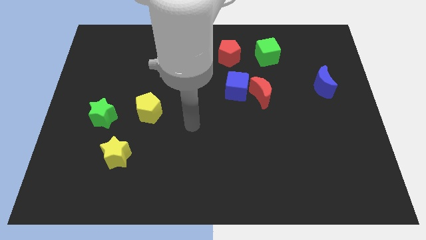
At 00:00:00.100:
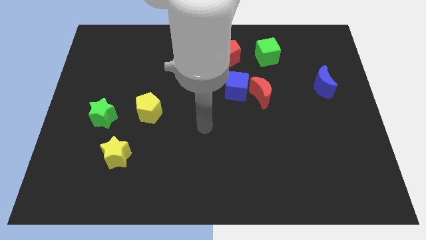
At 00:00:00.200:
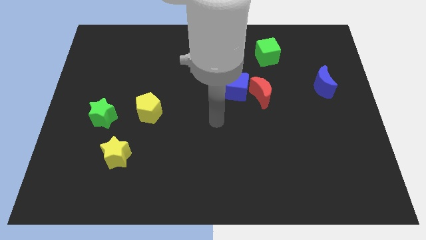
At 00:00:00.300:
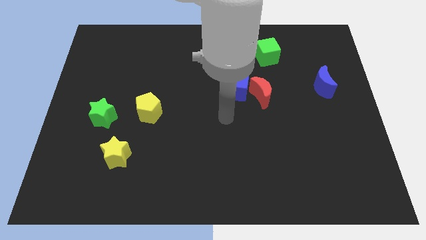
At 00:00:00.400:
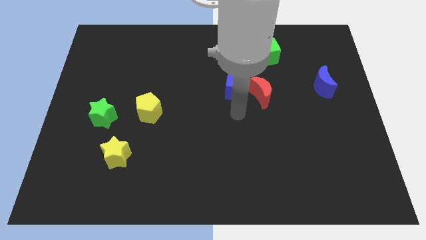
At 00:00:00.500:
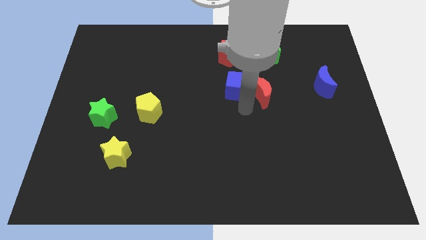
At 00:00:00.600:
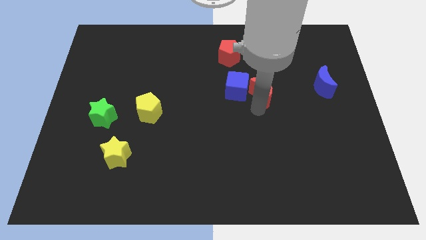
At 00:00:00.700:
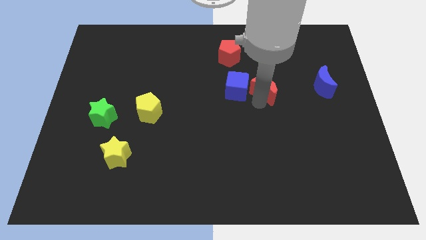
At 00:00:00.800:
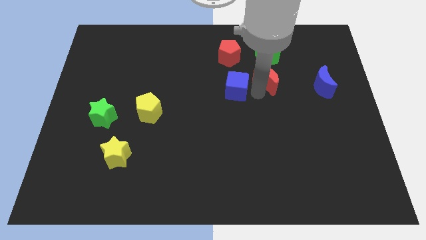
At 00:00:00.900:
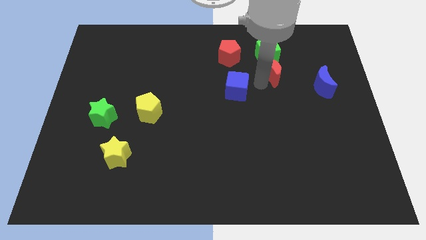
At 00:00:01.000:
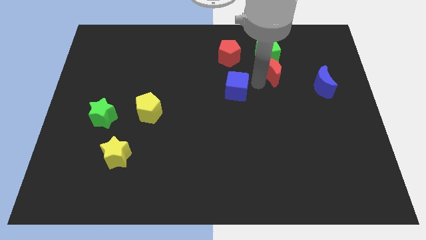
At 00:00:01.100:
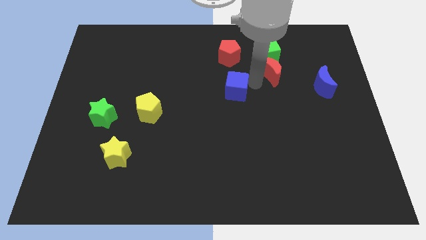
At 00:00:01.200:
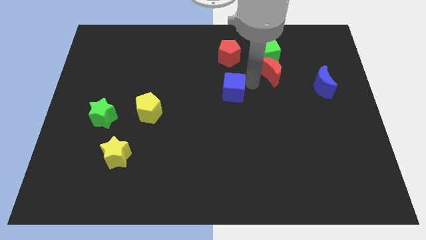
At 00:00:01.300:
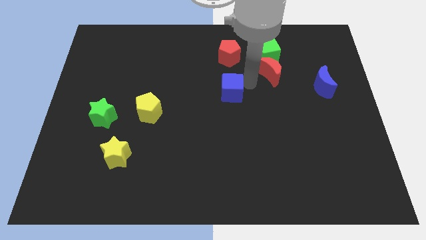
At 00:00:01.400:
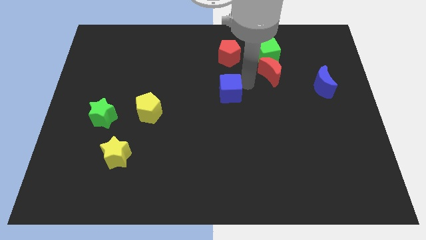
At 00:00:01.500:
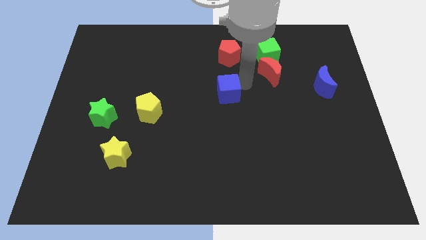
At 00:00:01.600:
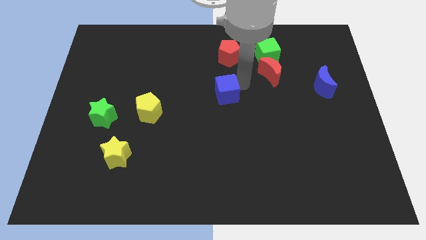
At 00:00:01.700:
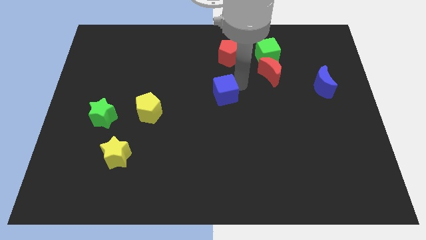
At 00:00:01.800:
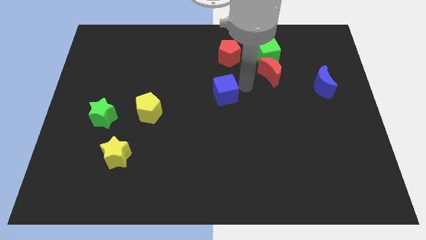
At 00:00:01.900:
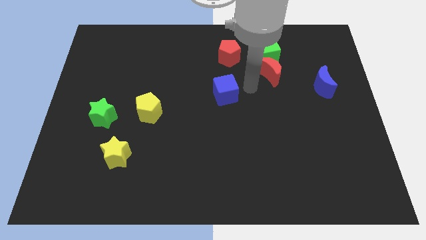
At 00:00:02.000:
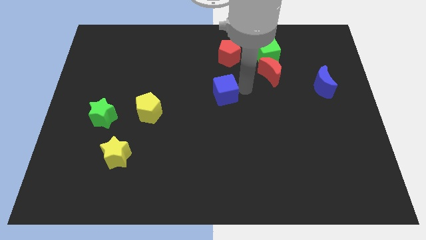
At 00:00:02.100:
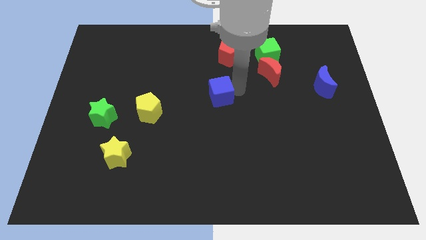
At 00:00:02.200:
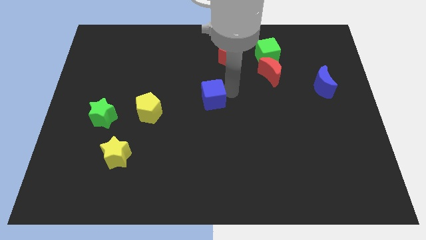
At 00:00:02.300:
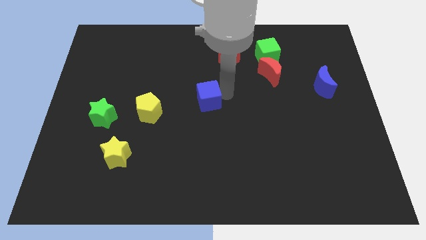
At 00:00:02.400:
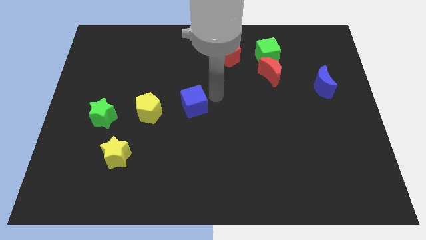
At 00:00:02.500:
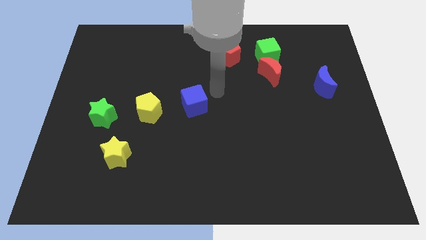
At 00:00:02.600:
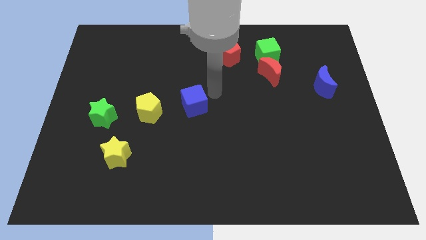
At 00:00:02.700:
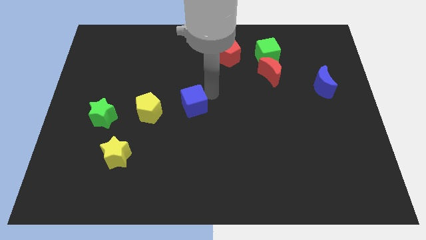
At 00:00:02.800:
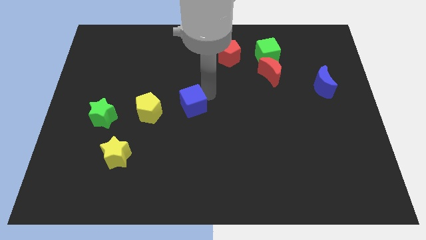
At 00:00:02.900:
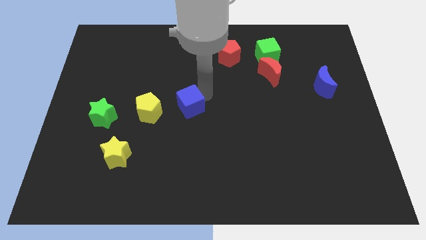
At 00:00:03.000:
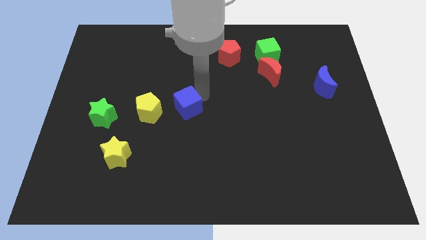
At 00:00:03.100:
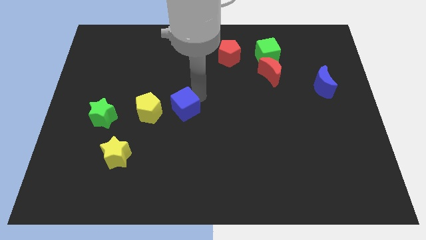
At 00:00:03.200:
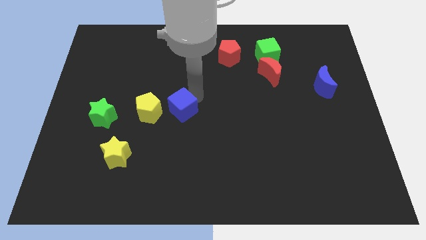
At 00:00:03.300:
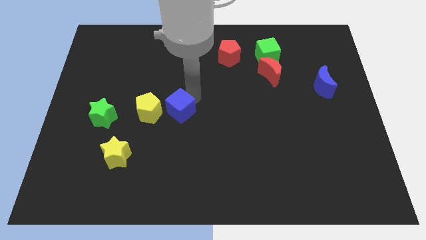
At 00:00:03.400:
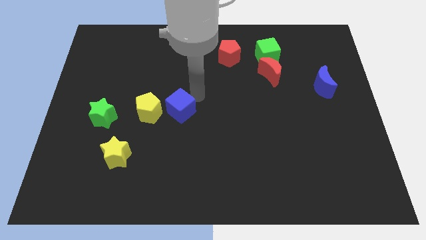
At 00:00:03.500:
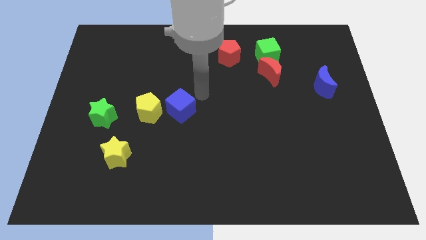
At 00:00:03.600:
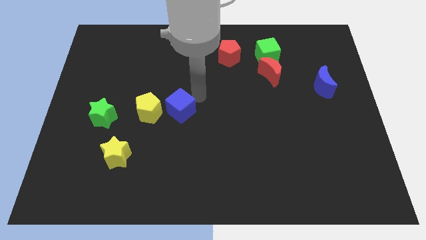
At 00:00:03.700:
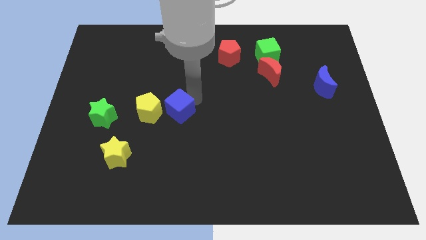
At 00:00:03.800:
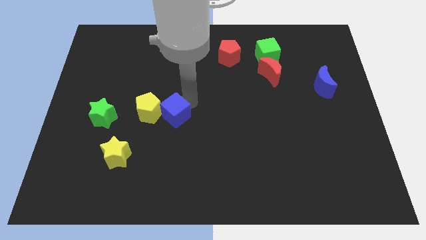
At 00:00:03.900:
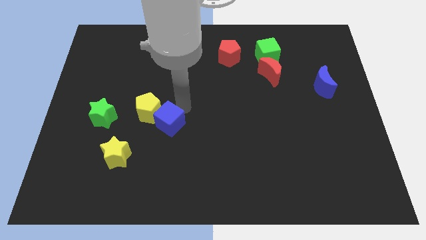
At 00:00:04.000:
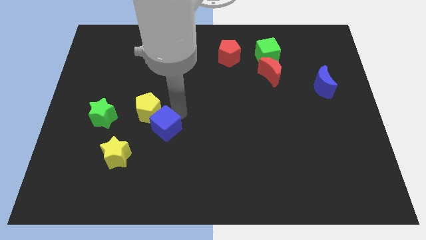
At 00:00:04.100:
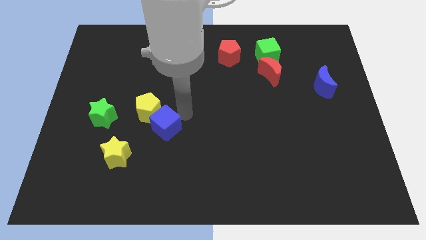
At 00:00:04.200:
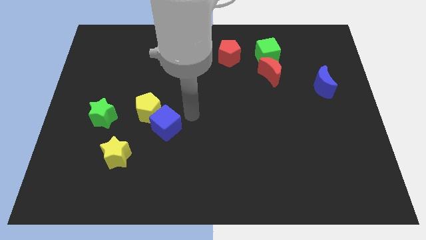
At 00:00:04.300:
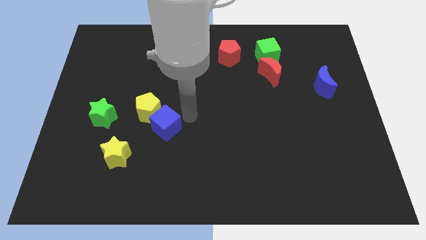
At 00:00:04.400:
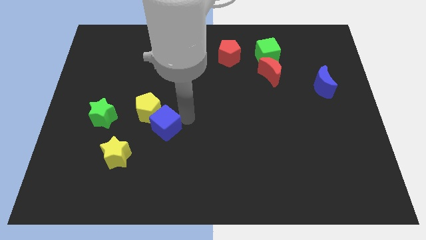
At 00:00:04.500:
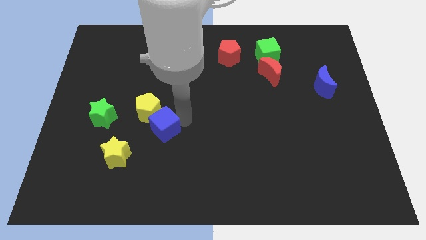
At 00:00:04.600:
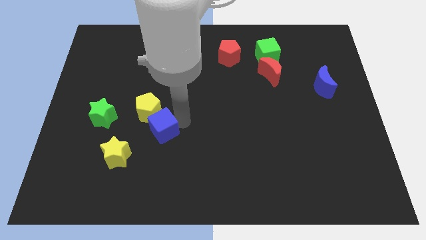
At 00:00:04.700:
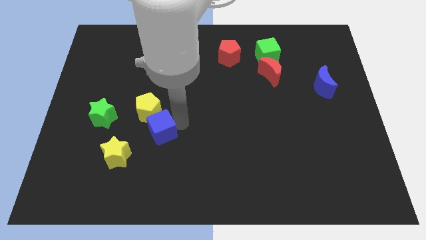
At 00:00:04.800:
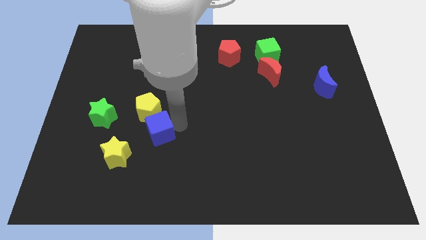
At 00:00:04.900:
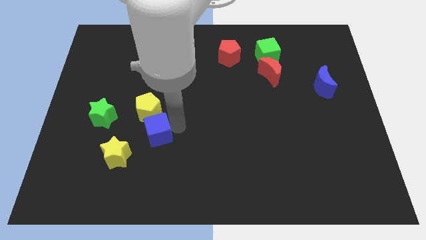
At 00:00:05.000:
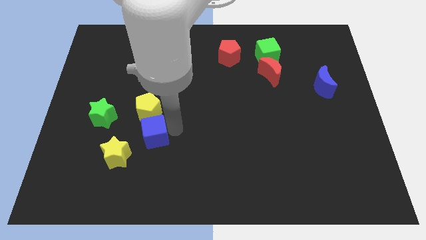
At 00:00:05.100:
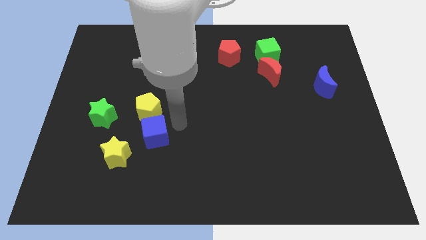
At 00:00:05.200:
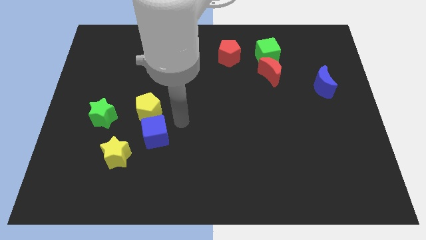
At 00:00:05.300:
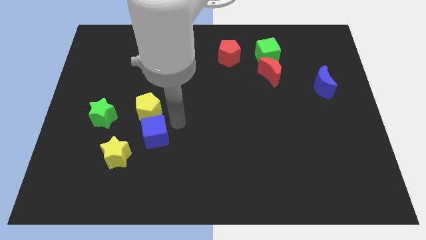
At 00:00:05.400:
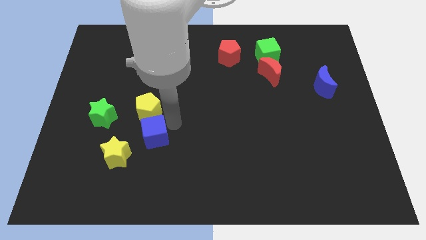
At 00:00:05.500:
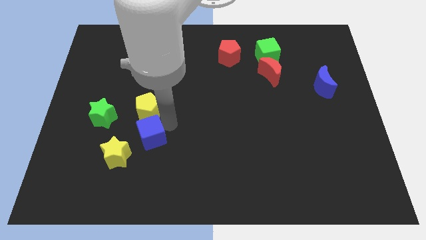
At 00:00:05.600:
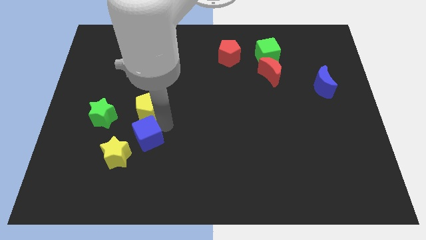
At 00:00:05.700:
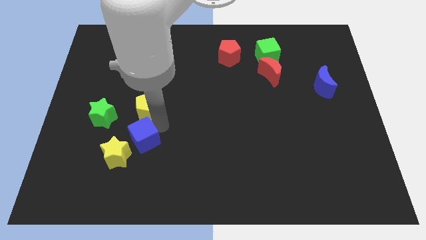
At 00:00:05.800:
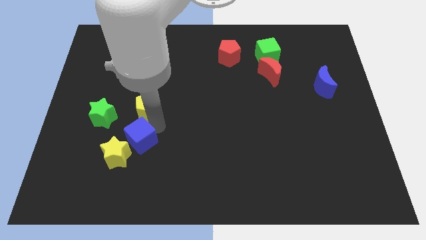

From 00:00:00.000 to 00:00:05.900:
push the blue cube next to the yellow star

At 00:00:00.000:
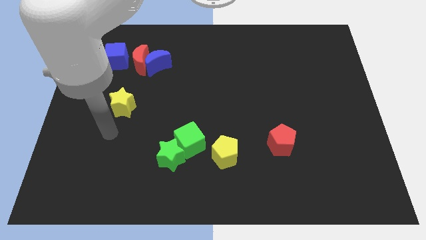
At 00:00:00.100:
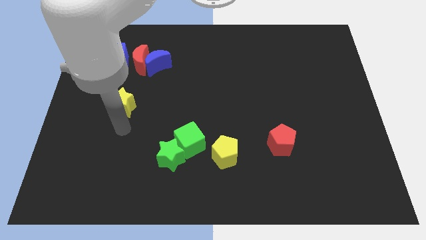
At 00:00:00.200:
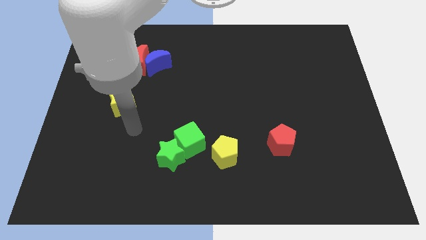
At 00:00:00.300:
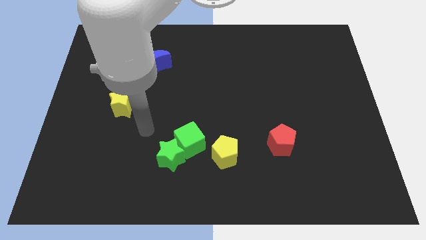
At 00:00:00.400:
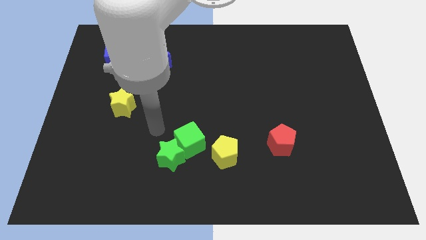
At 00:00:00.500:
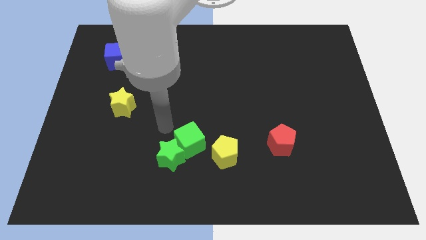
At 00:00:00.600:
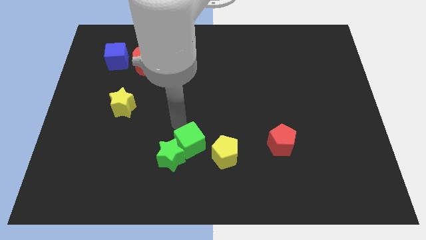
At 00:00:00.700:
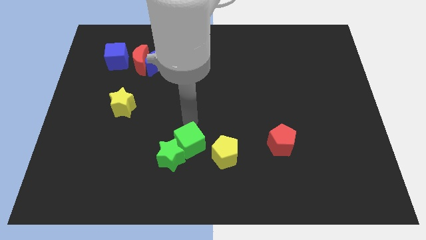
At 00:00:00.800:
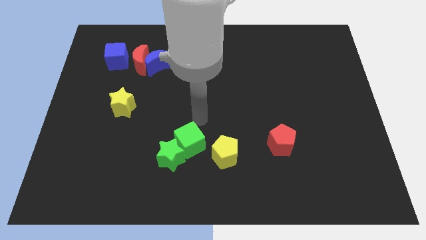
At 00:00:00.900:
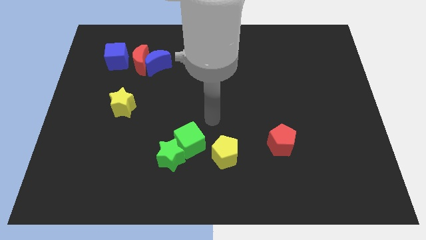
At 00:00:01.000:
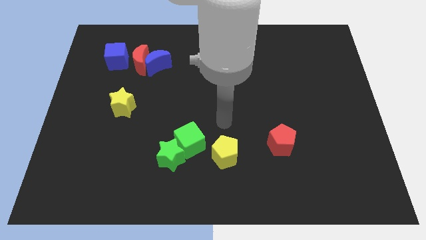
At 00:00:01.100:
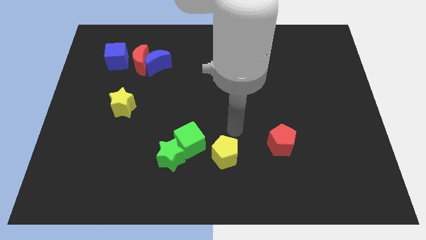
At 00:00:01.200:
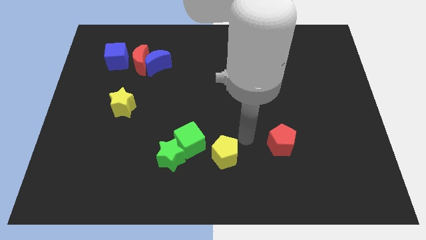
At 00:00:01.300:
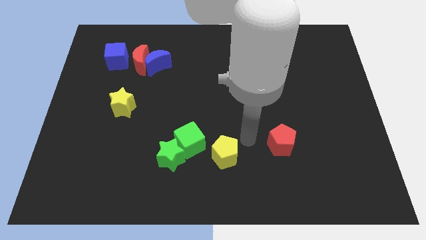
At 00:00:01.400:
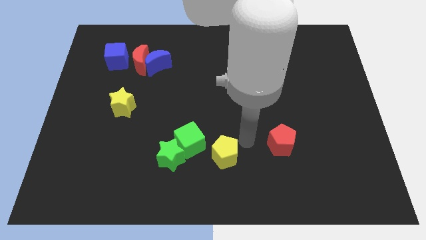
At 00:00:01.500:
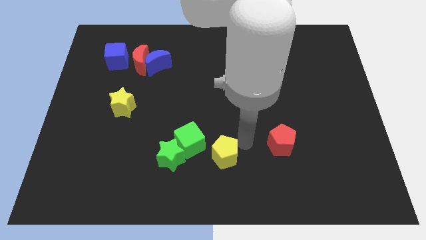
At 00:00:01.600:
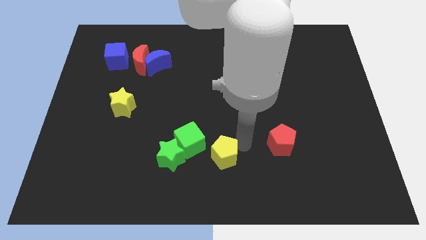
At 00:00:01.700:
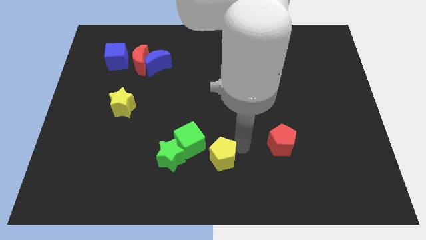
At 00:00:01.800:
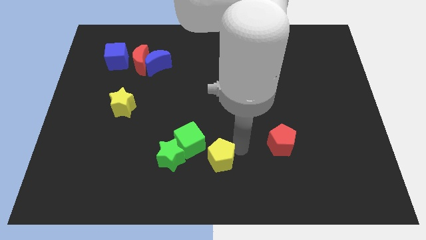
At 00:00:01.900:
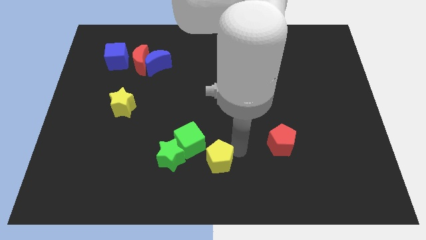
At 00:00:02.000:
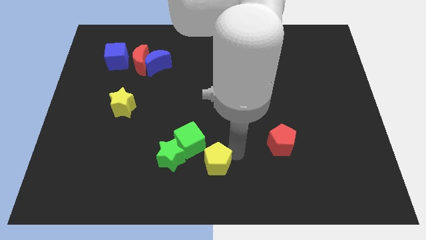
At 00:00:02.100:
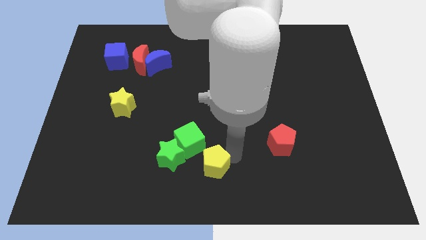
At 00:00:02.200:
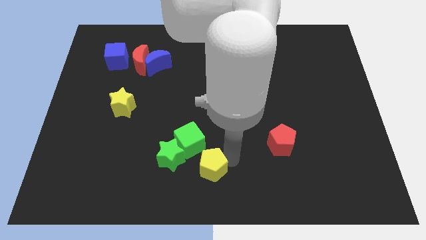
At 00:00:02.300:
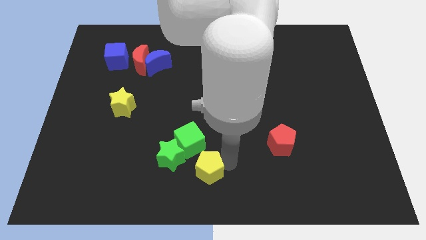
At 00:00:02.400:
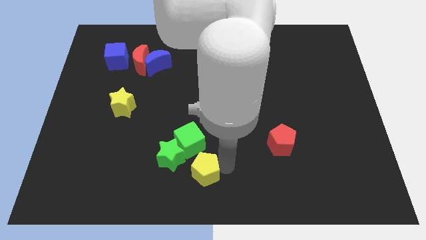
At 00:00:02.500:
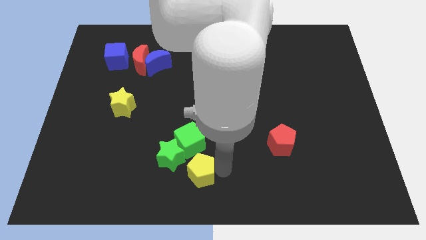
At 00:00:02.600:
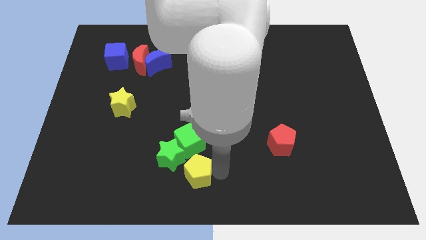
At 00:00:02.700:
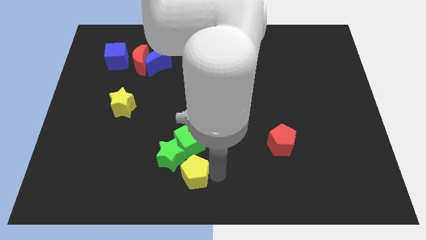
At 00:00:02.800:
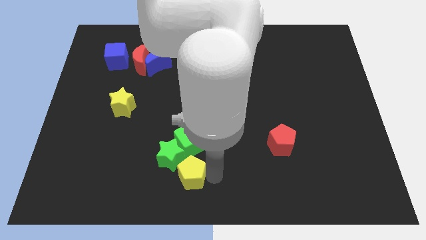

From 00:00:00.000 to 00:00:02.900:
put the yellow pentagon to the green star
